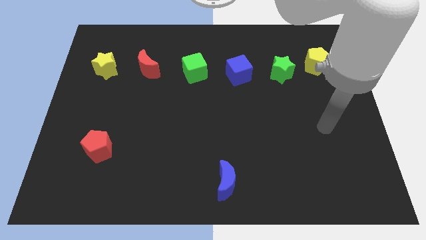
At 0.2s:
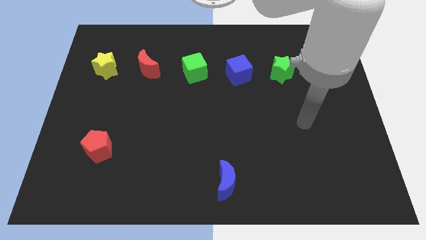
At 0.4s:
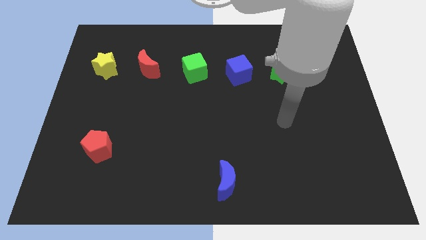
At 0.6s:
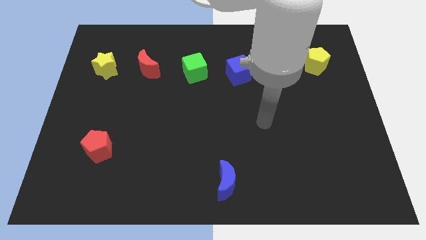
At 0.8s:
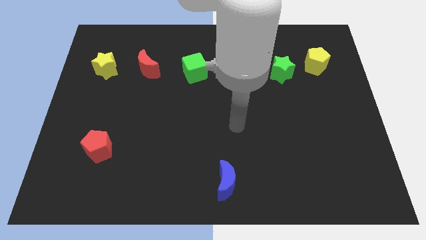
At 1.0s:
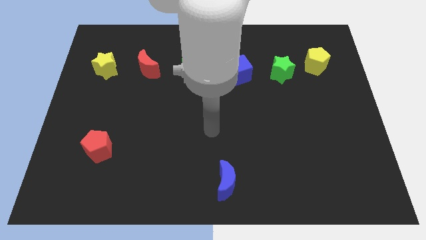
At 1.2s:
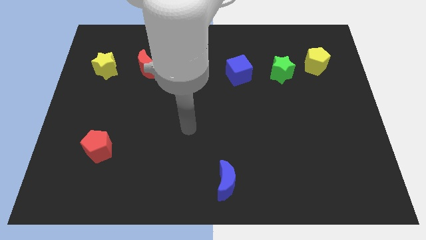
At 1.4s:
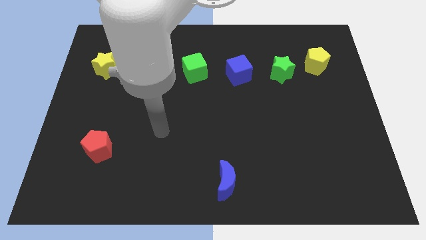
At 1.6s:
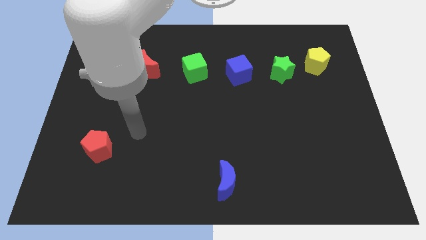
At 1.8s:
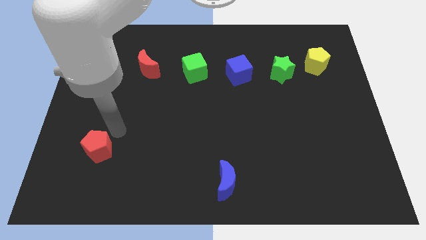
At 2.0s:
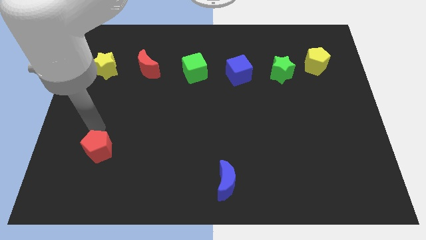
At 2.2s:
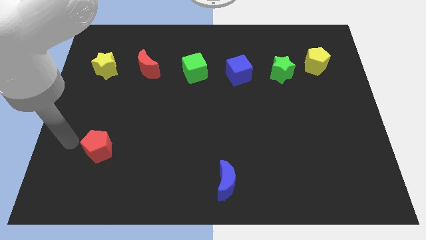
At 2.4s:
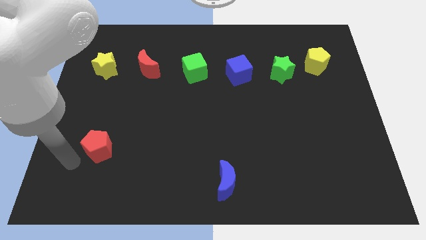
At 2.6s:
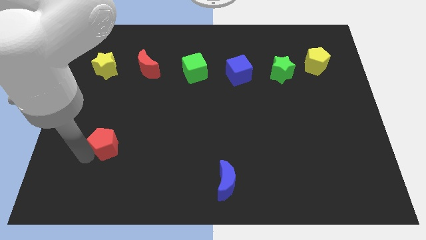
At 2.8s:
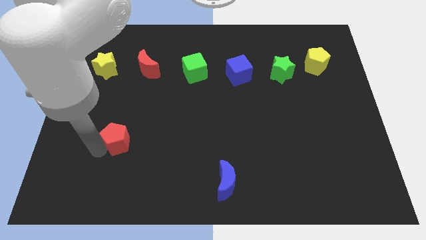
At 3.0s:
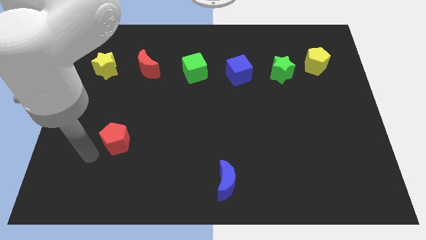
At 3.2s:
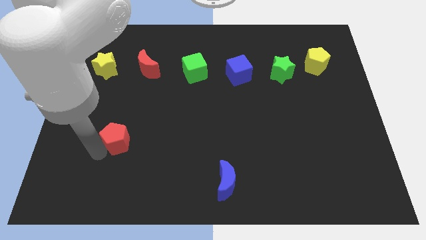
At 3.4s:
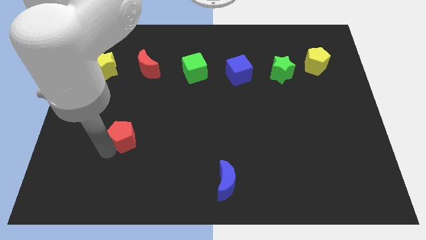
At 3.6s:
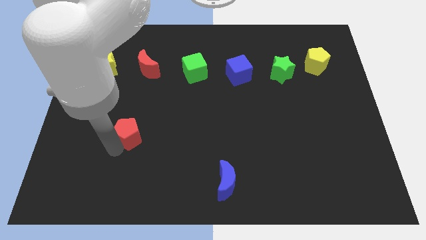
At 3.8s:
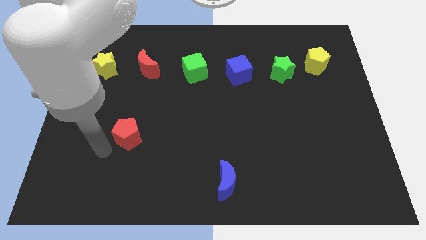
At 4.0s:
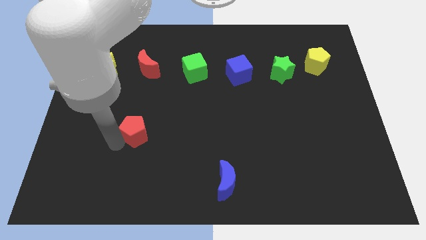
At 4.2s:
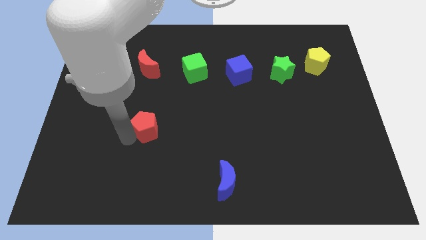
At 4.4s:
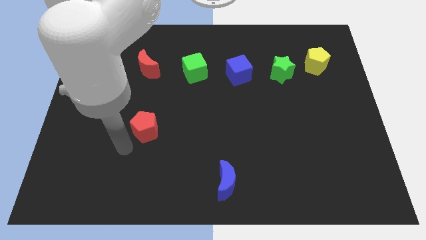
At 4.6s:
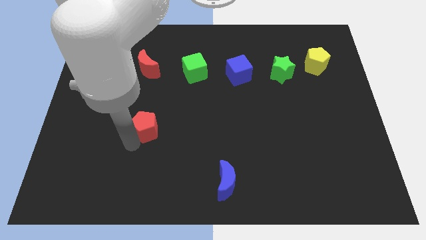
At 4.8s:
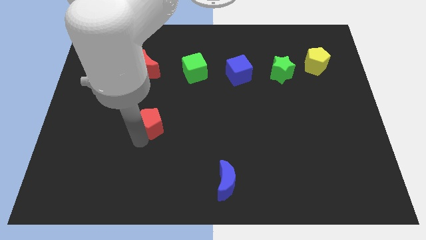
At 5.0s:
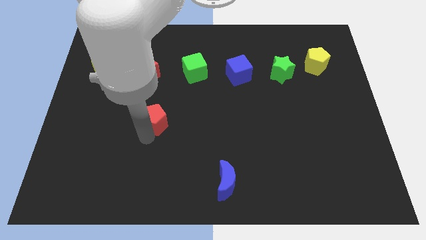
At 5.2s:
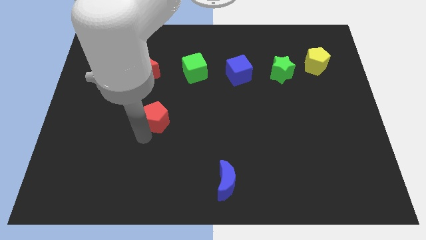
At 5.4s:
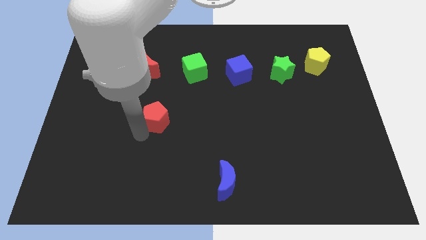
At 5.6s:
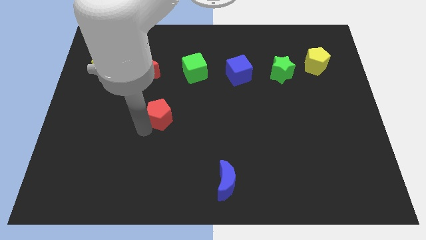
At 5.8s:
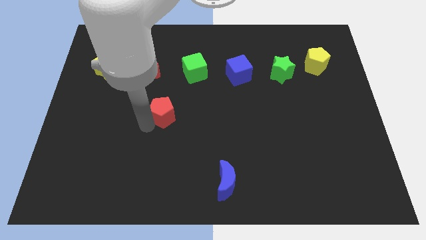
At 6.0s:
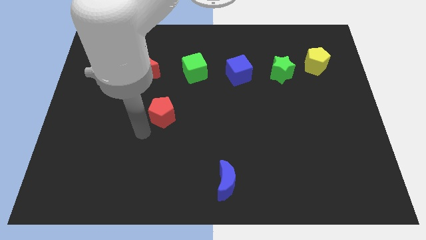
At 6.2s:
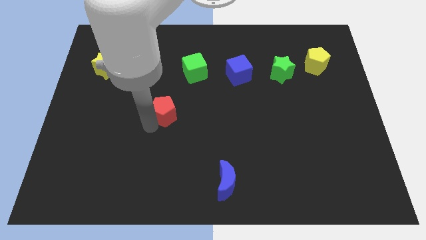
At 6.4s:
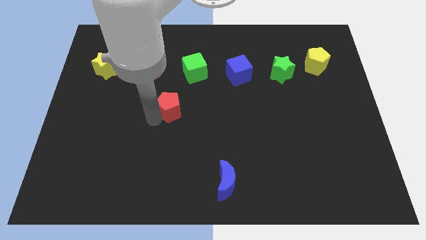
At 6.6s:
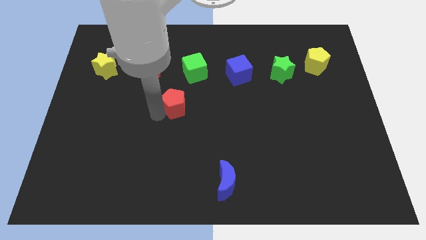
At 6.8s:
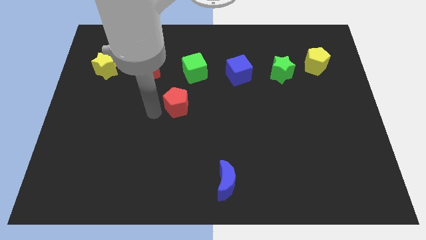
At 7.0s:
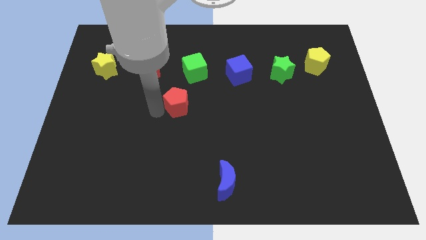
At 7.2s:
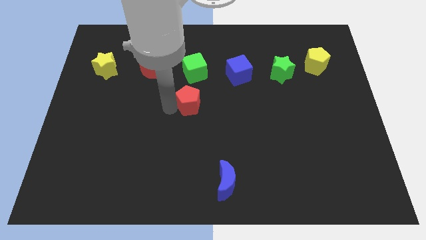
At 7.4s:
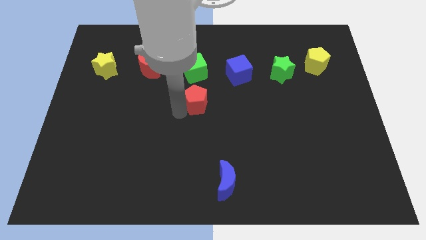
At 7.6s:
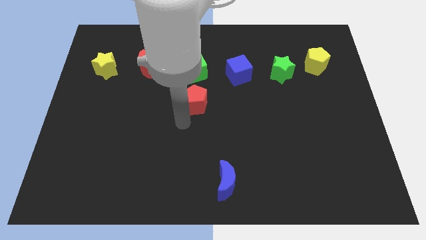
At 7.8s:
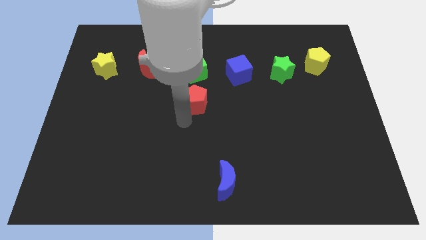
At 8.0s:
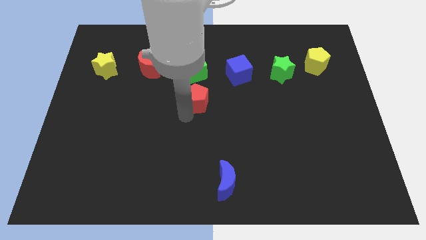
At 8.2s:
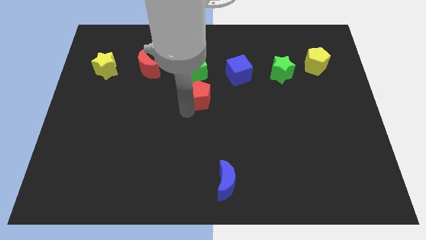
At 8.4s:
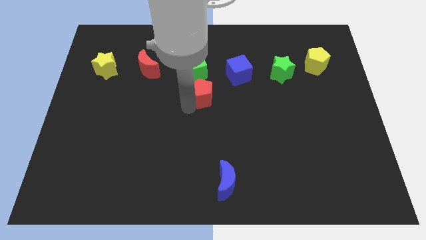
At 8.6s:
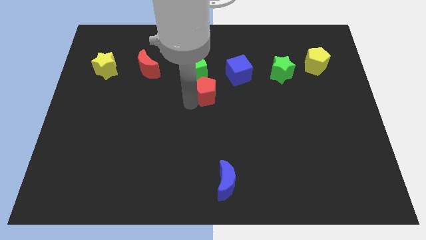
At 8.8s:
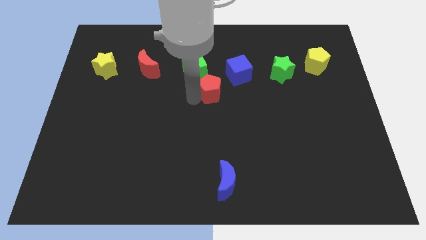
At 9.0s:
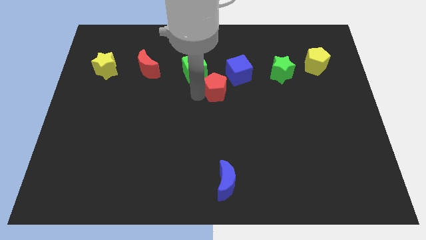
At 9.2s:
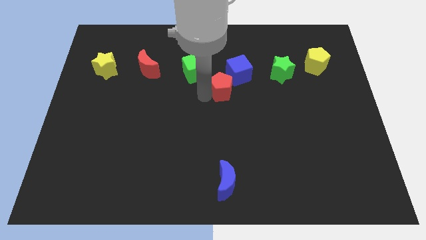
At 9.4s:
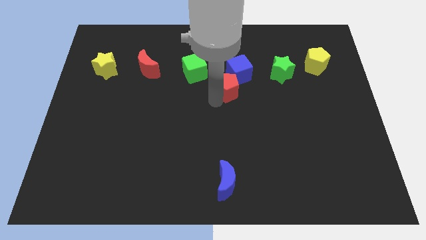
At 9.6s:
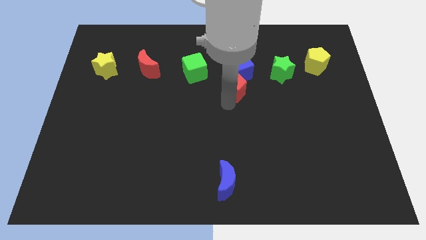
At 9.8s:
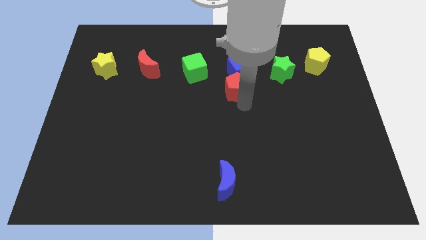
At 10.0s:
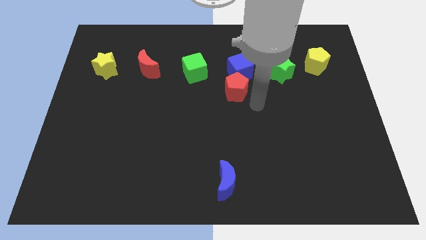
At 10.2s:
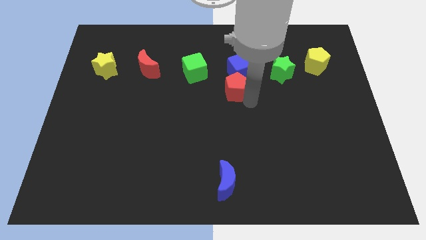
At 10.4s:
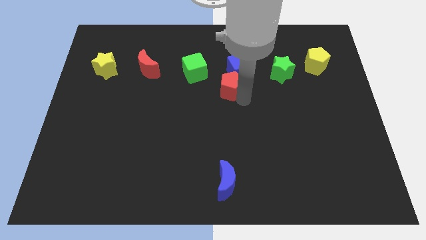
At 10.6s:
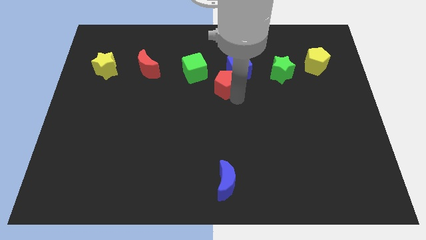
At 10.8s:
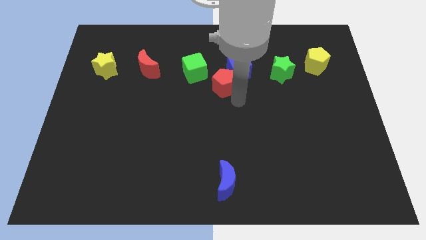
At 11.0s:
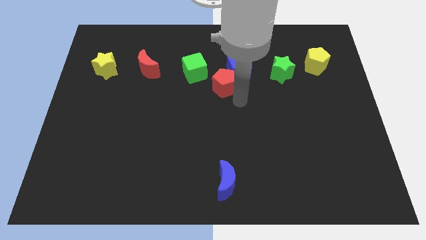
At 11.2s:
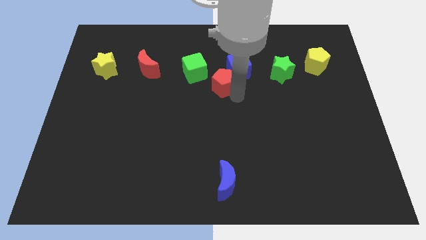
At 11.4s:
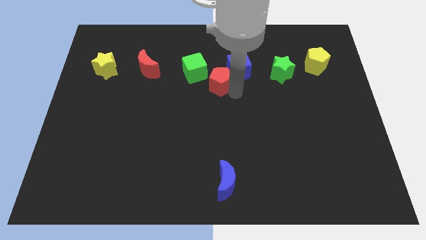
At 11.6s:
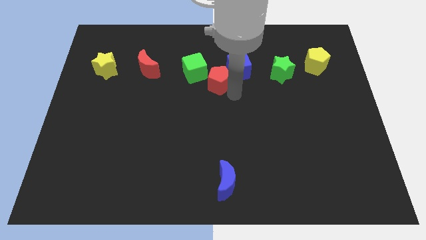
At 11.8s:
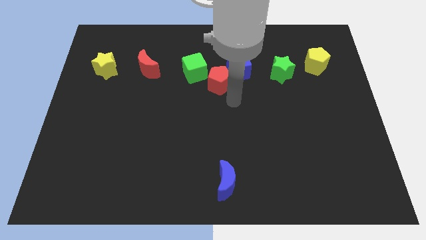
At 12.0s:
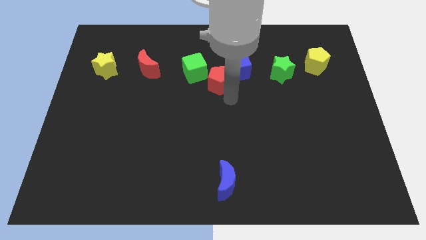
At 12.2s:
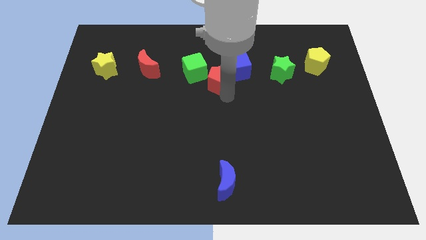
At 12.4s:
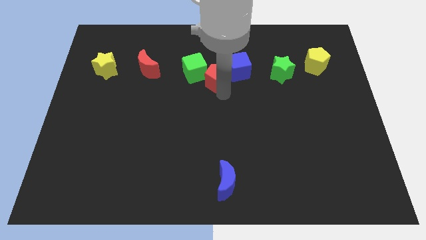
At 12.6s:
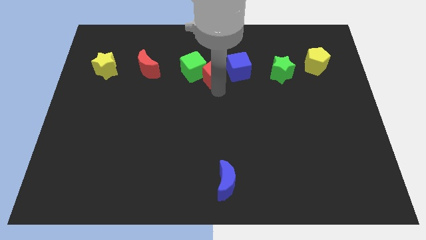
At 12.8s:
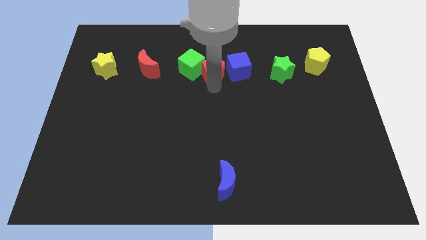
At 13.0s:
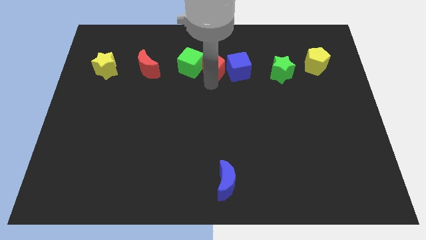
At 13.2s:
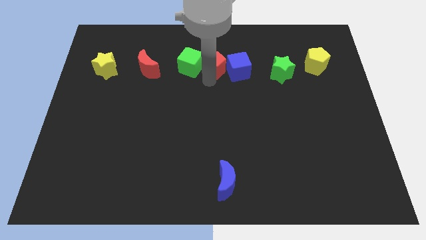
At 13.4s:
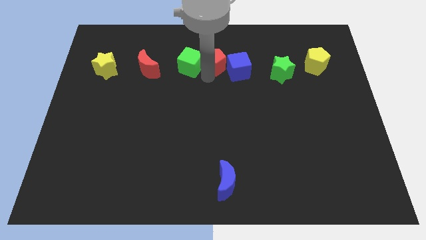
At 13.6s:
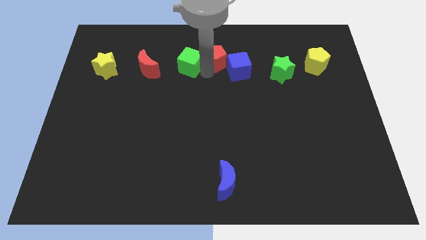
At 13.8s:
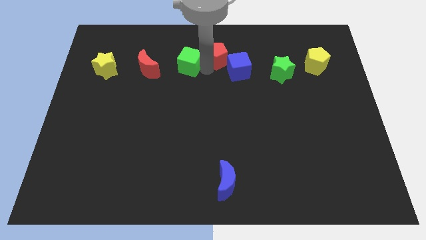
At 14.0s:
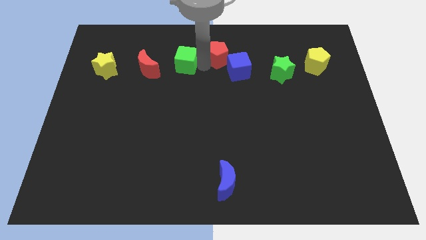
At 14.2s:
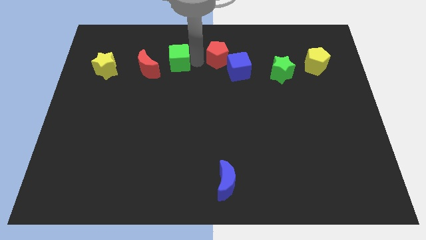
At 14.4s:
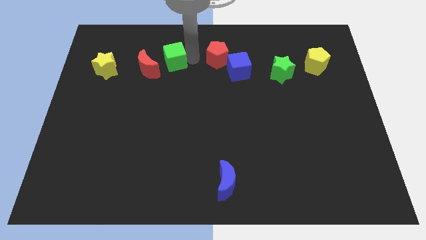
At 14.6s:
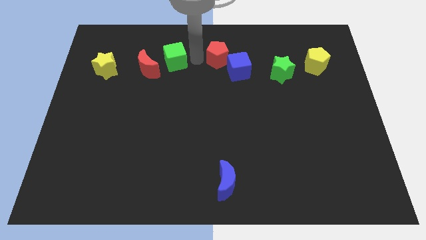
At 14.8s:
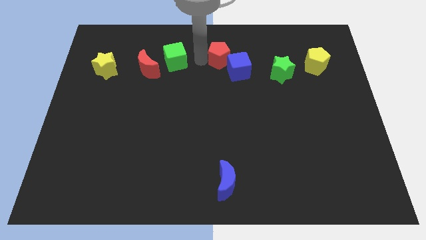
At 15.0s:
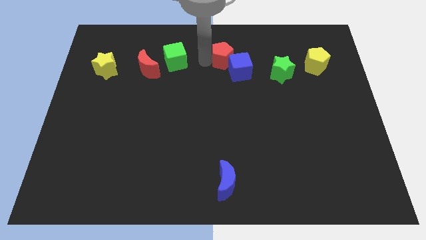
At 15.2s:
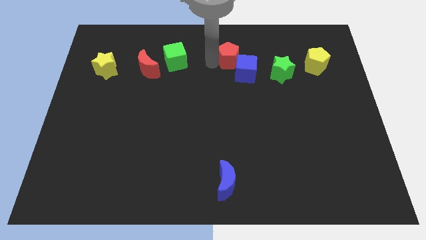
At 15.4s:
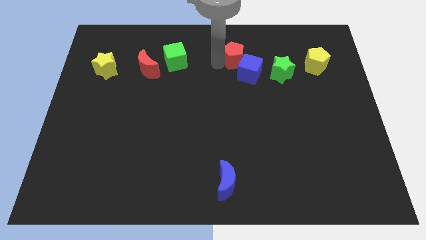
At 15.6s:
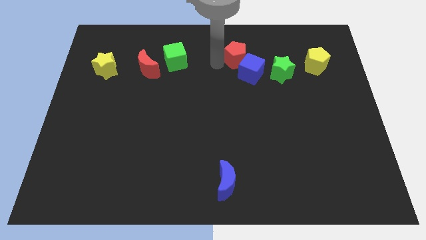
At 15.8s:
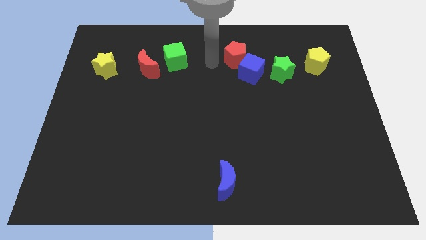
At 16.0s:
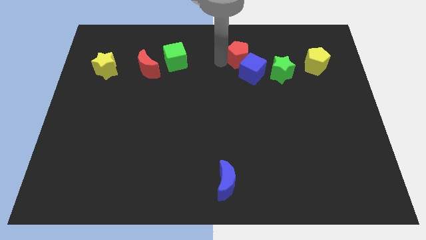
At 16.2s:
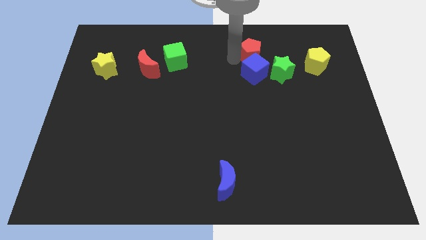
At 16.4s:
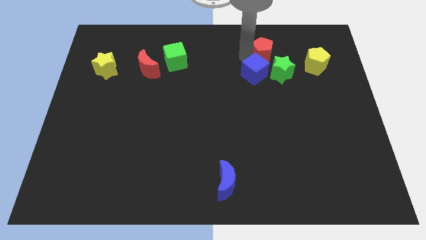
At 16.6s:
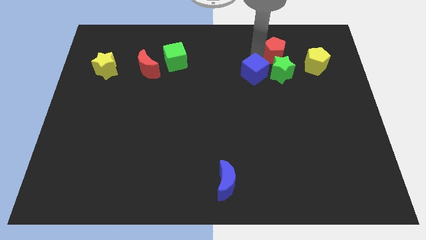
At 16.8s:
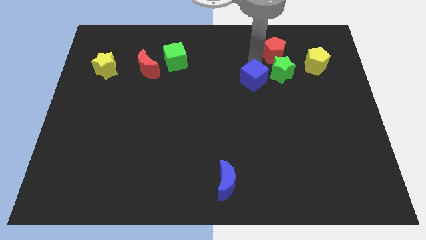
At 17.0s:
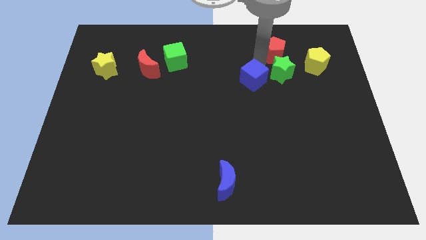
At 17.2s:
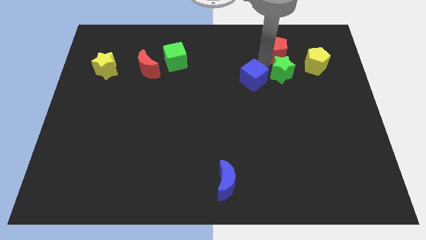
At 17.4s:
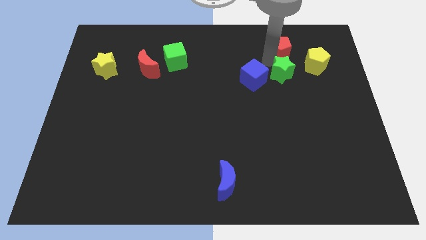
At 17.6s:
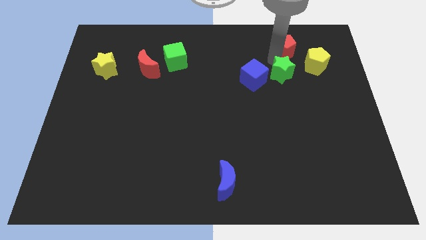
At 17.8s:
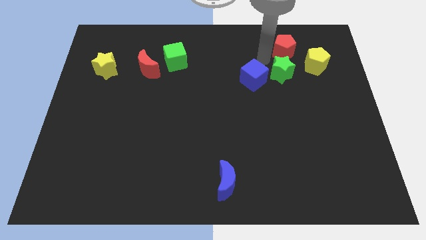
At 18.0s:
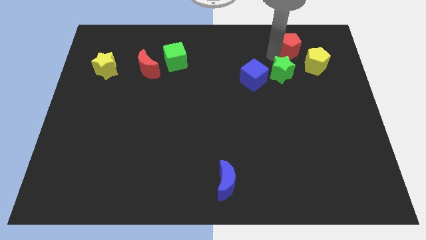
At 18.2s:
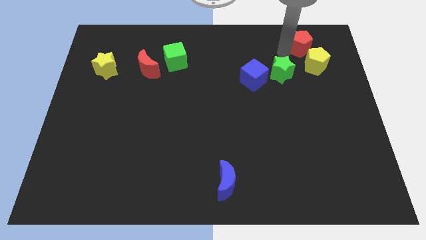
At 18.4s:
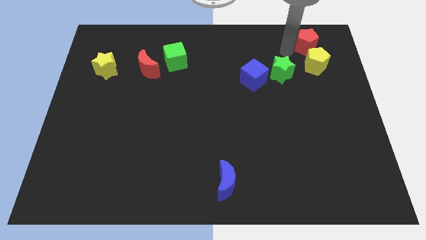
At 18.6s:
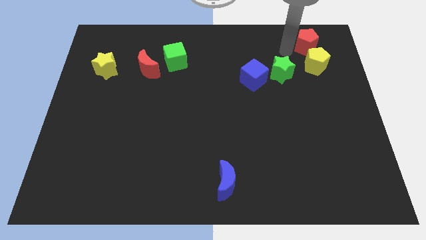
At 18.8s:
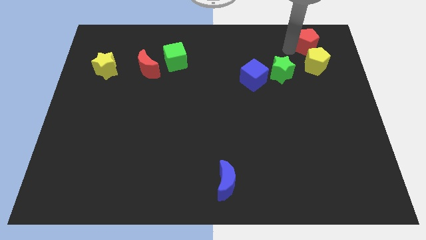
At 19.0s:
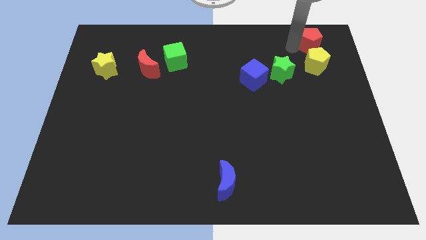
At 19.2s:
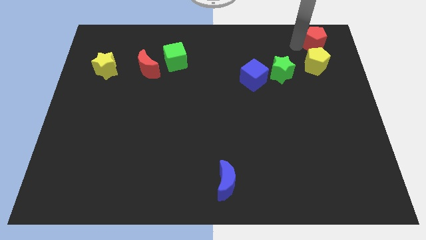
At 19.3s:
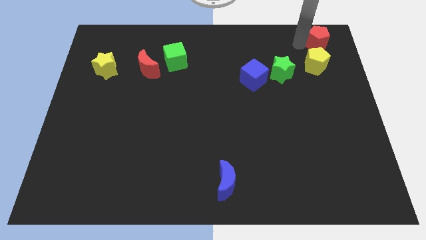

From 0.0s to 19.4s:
slide the red pentagon to the top right of the board
